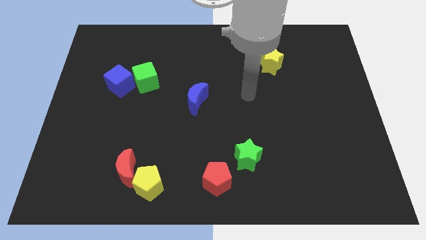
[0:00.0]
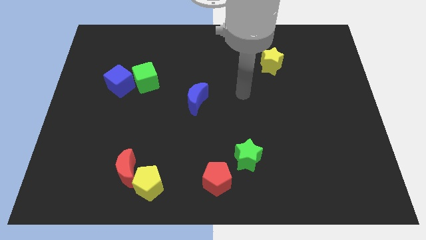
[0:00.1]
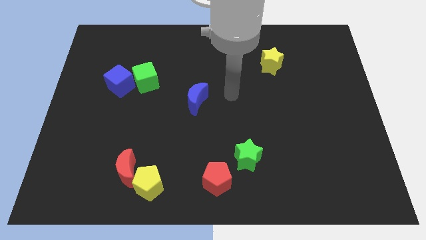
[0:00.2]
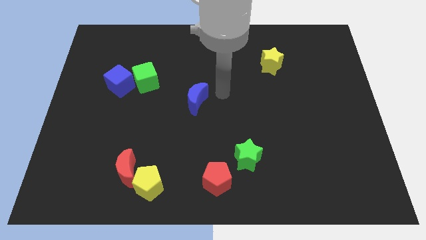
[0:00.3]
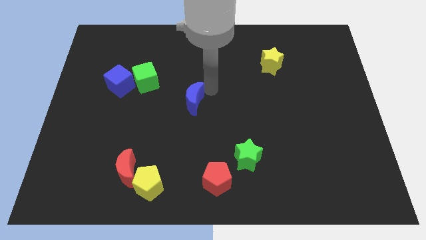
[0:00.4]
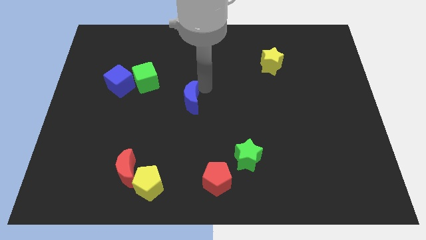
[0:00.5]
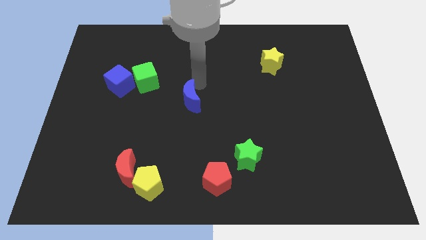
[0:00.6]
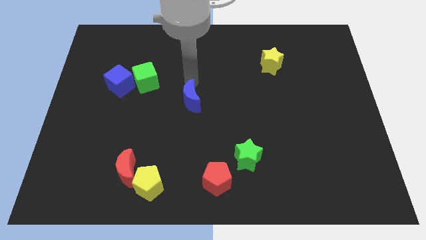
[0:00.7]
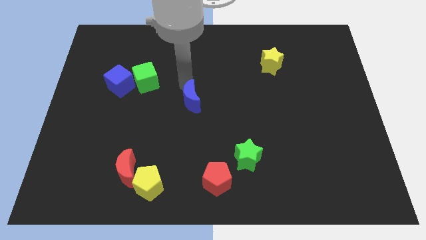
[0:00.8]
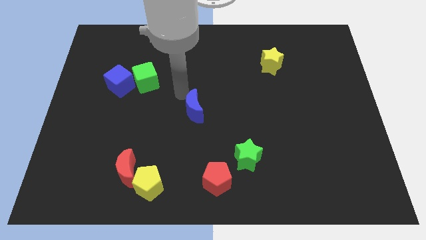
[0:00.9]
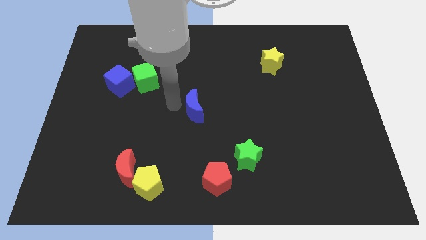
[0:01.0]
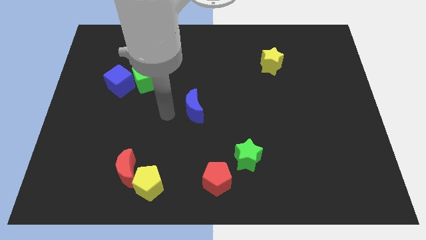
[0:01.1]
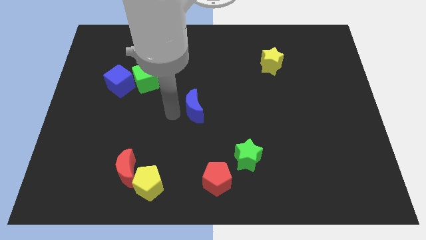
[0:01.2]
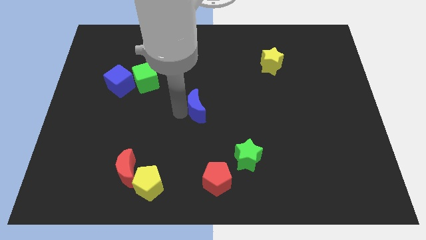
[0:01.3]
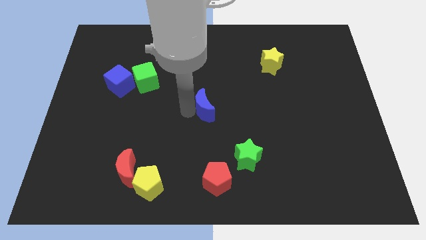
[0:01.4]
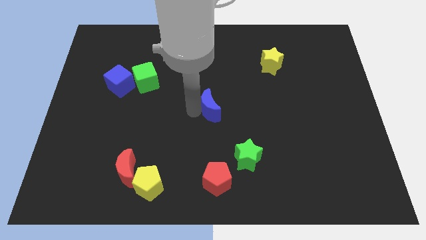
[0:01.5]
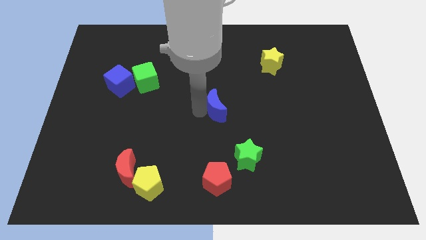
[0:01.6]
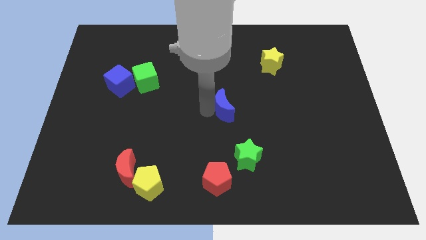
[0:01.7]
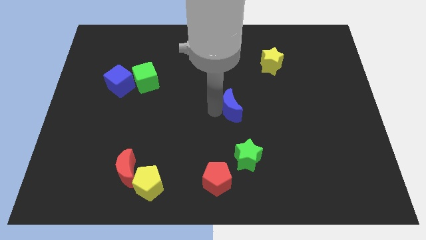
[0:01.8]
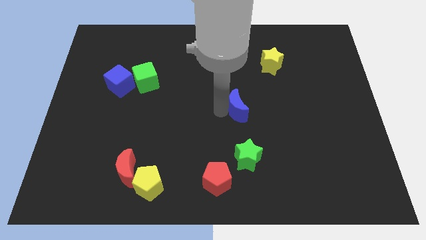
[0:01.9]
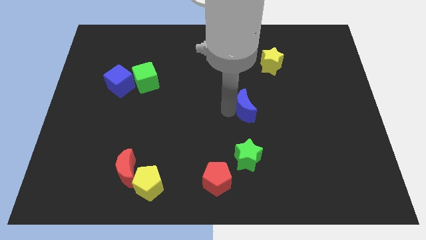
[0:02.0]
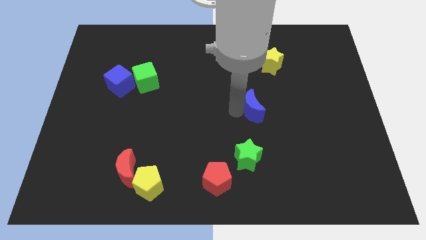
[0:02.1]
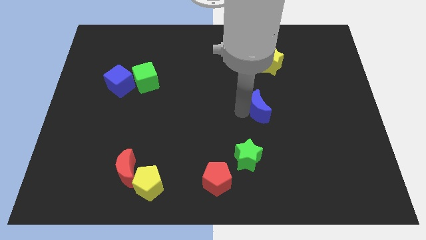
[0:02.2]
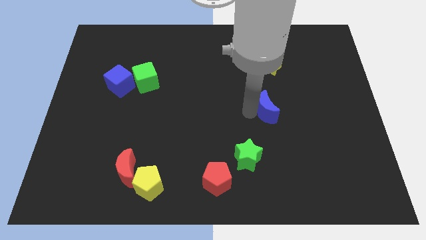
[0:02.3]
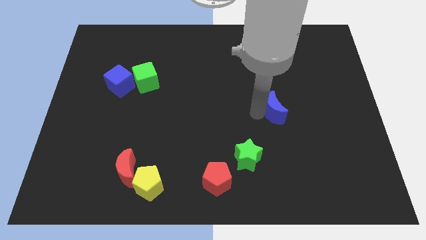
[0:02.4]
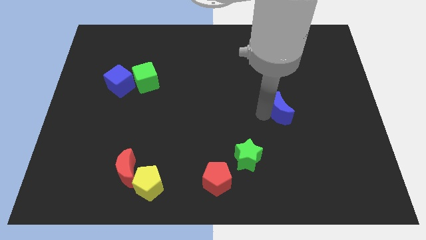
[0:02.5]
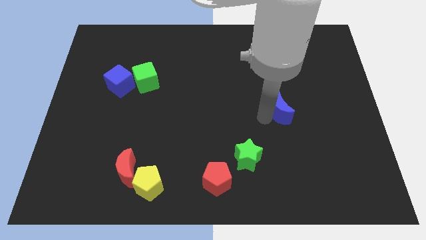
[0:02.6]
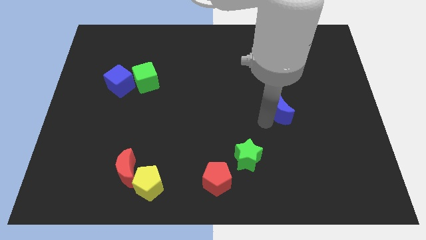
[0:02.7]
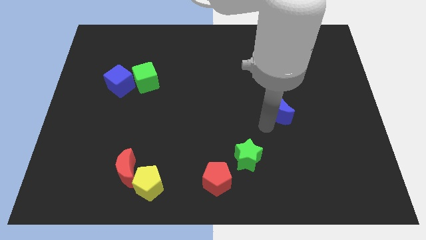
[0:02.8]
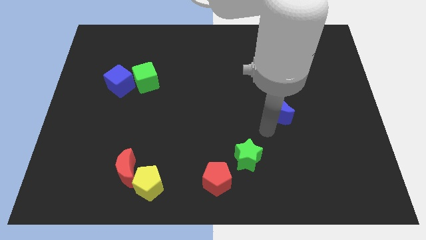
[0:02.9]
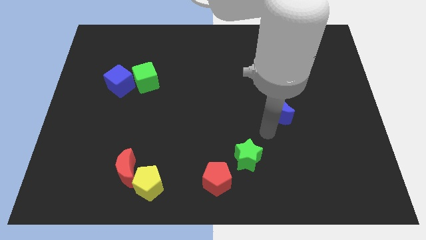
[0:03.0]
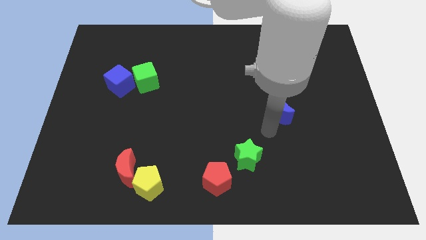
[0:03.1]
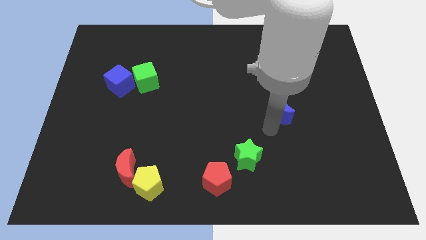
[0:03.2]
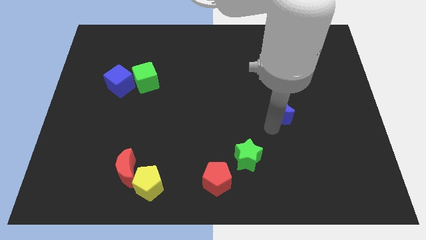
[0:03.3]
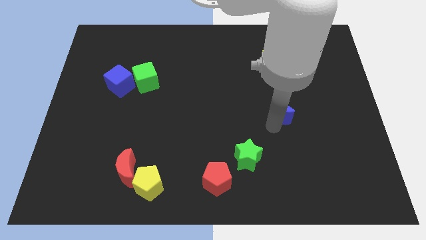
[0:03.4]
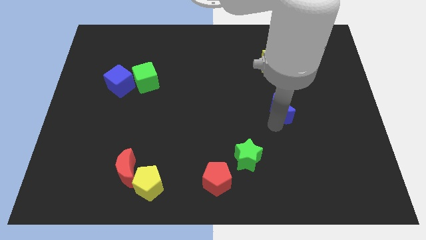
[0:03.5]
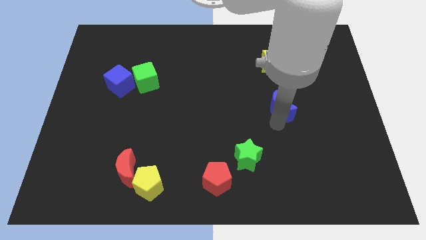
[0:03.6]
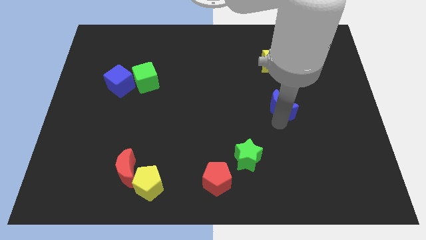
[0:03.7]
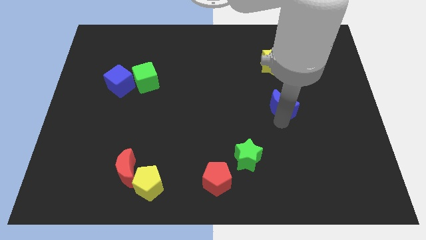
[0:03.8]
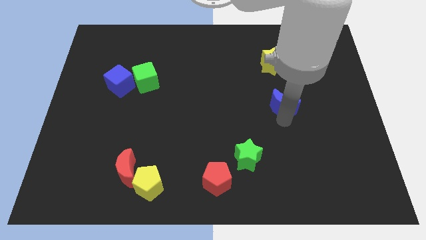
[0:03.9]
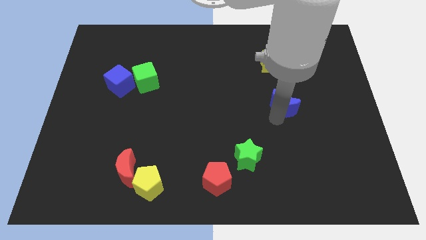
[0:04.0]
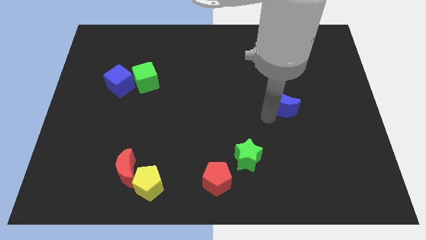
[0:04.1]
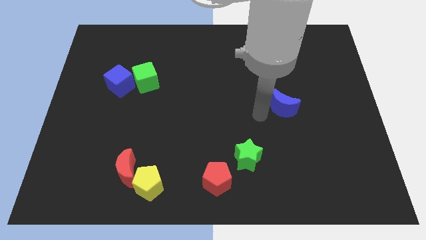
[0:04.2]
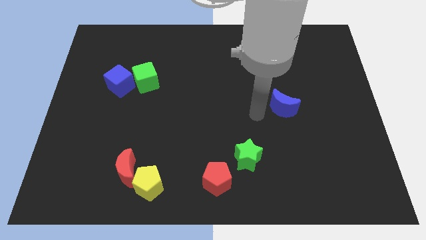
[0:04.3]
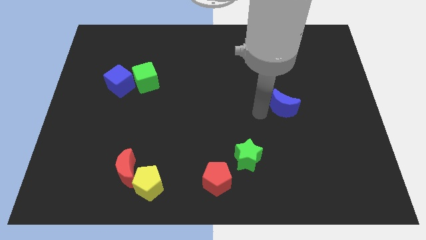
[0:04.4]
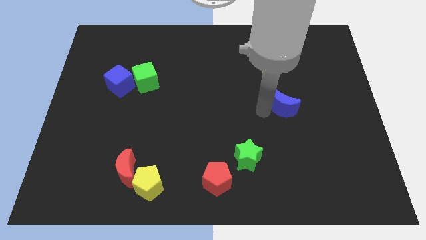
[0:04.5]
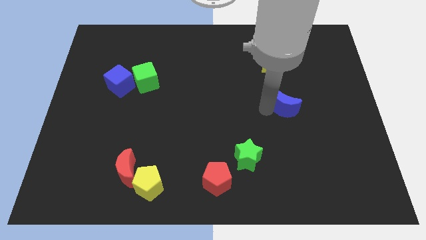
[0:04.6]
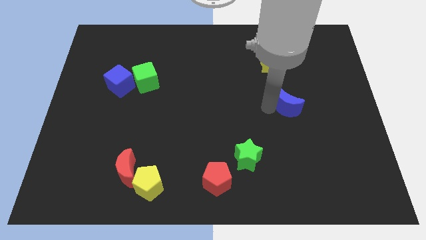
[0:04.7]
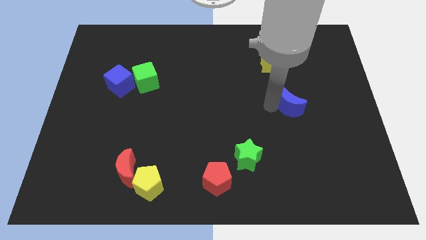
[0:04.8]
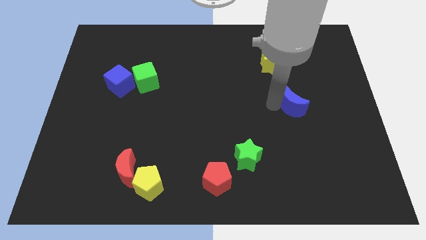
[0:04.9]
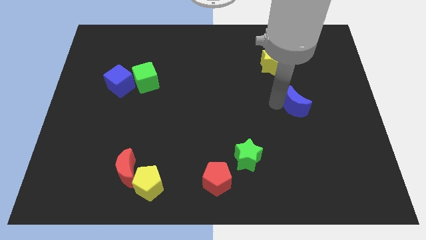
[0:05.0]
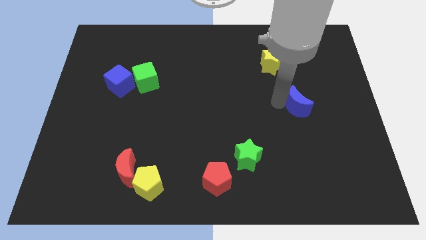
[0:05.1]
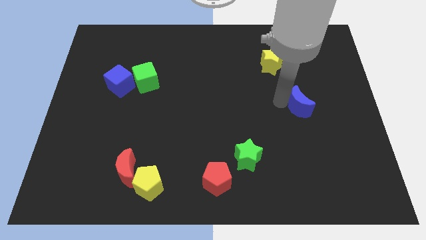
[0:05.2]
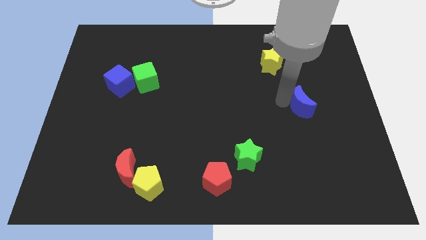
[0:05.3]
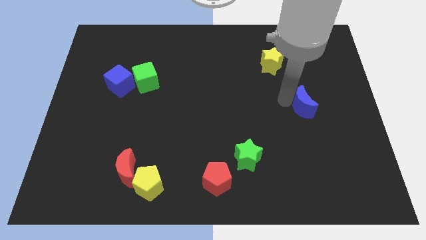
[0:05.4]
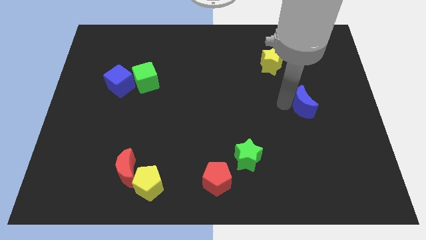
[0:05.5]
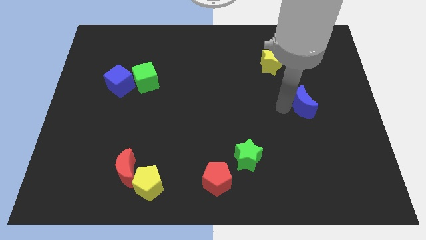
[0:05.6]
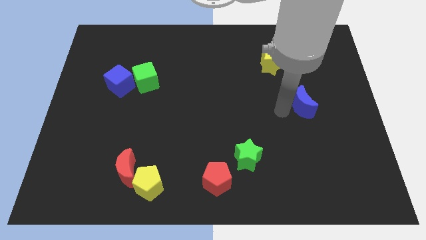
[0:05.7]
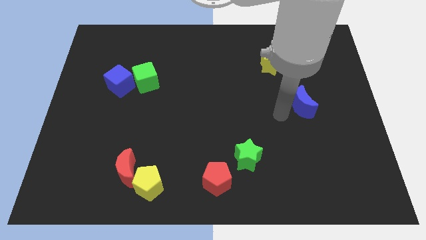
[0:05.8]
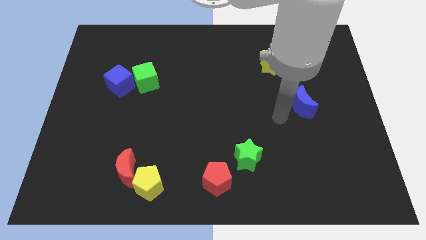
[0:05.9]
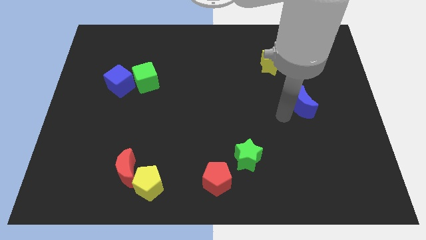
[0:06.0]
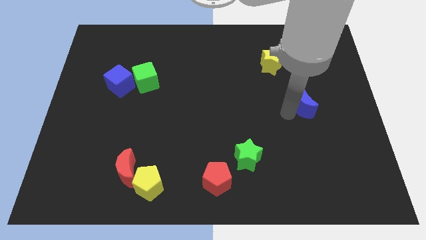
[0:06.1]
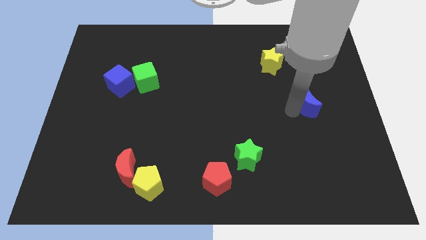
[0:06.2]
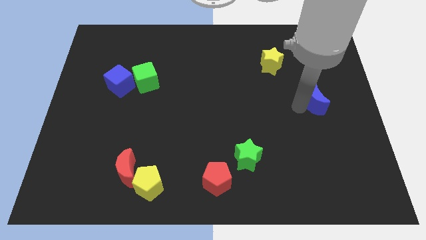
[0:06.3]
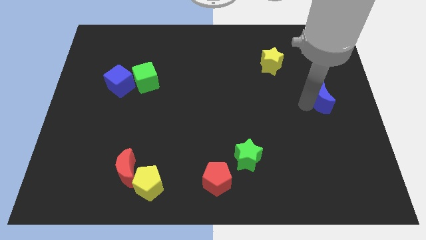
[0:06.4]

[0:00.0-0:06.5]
move the blue moon to the right side of the board

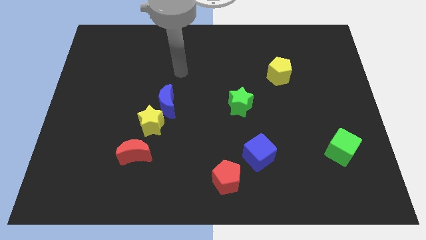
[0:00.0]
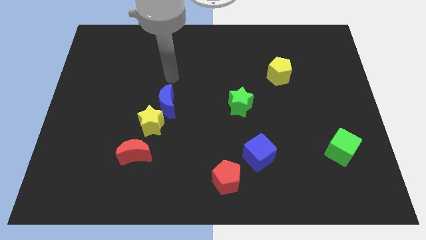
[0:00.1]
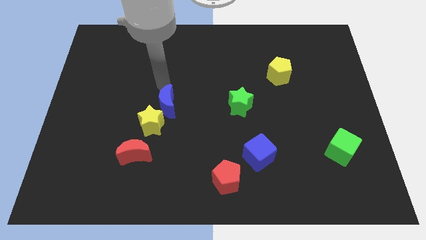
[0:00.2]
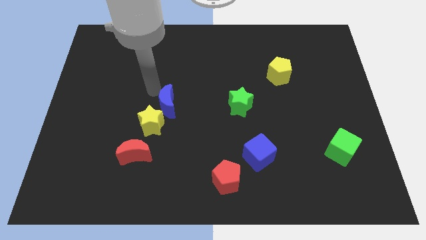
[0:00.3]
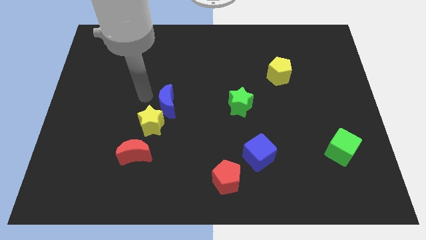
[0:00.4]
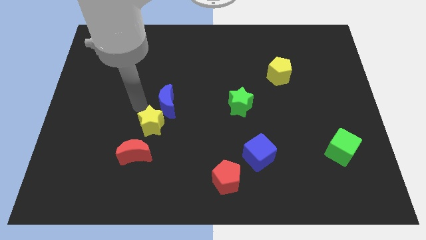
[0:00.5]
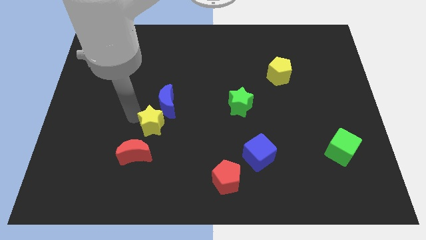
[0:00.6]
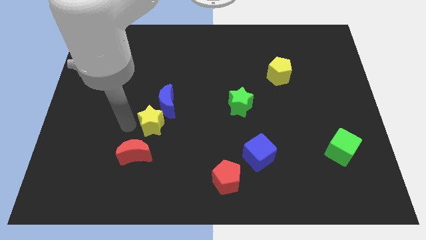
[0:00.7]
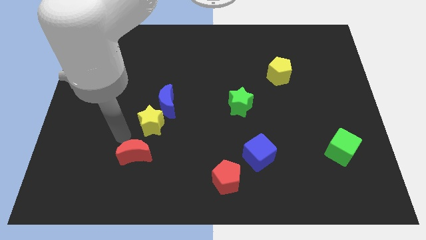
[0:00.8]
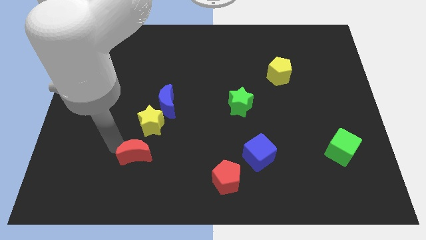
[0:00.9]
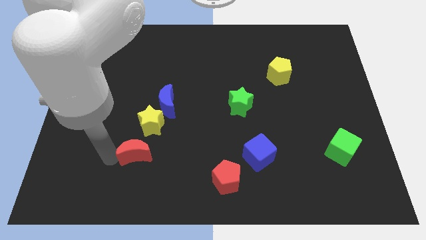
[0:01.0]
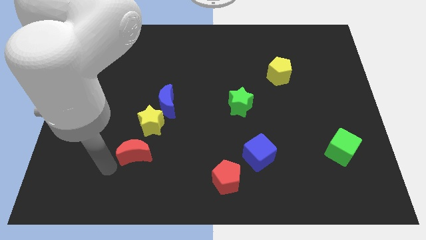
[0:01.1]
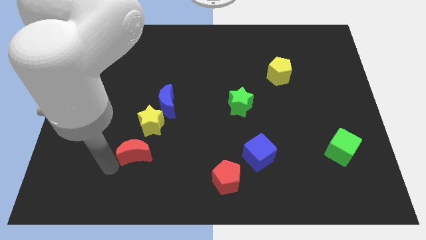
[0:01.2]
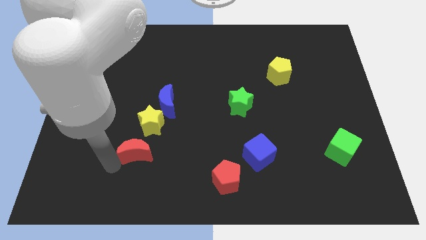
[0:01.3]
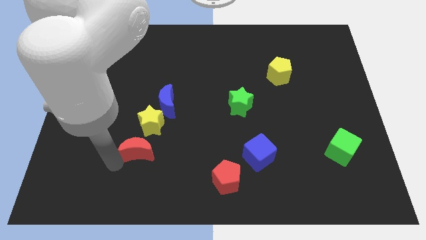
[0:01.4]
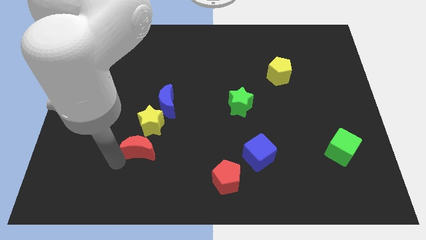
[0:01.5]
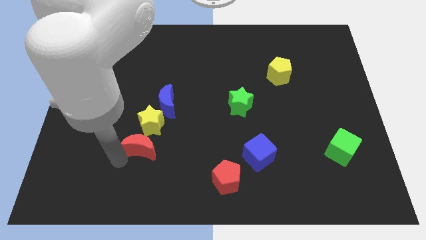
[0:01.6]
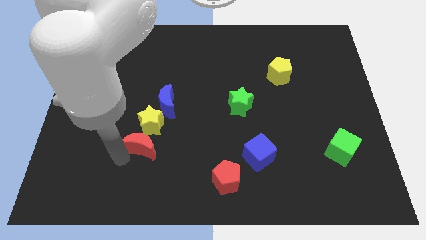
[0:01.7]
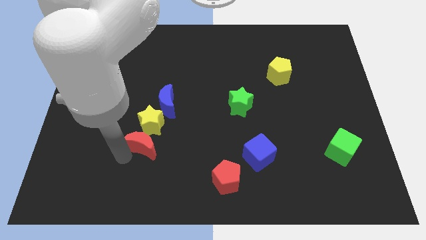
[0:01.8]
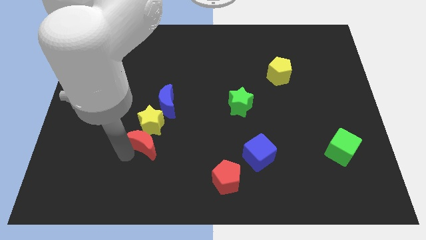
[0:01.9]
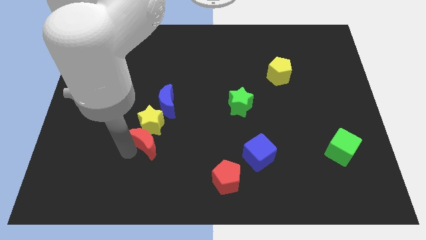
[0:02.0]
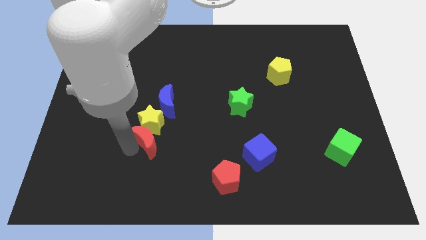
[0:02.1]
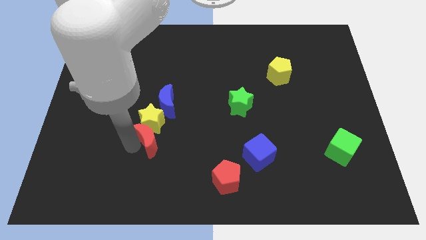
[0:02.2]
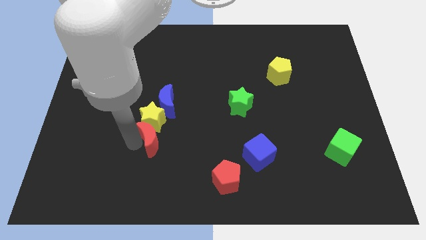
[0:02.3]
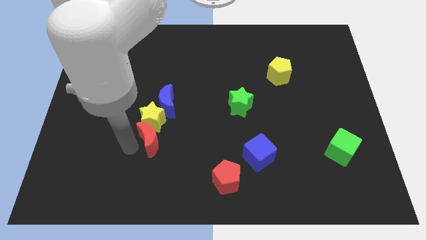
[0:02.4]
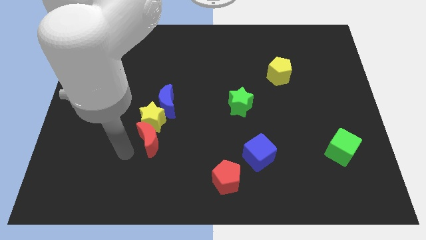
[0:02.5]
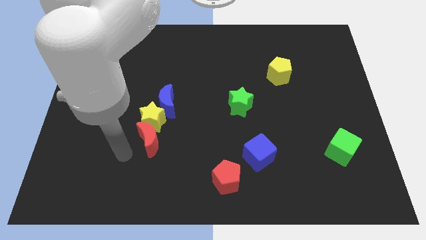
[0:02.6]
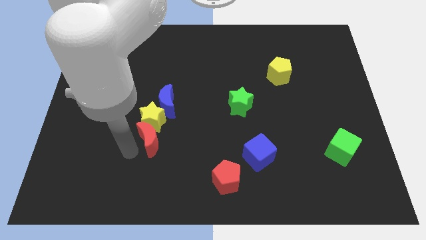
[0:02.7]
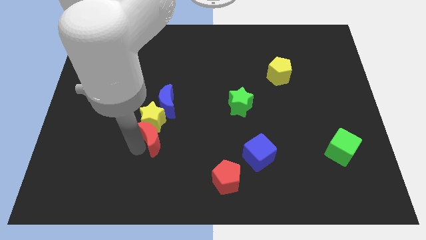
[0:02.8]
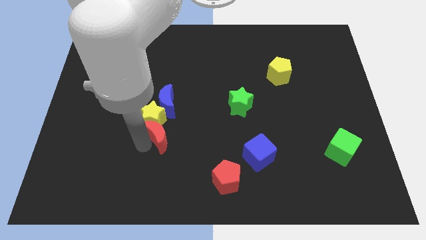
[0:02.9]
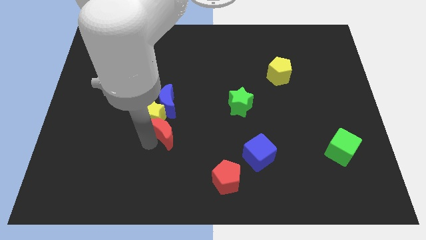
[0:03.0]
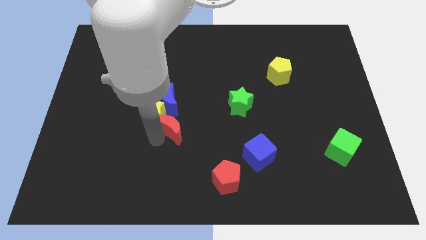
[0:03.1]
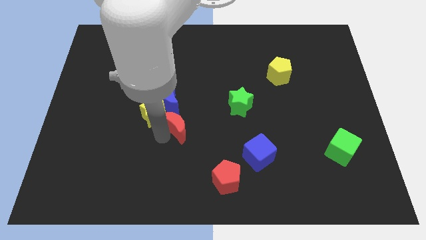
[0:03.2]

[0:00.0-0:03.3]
put the red moon to the center of the board
